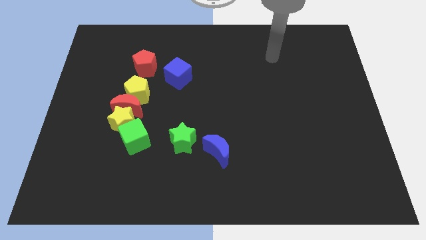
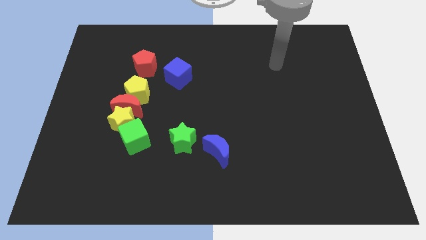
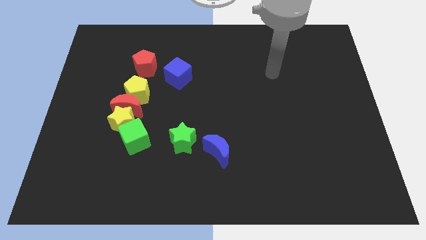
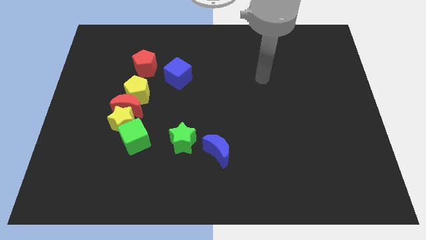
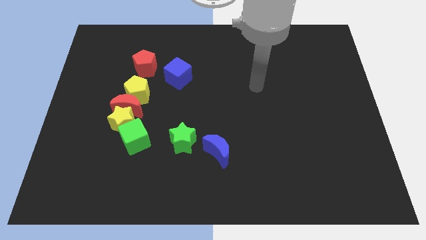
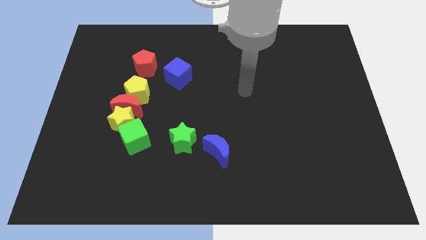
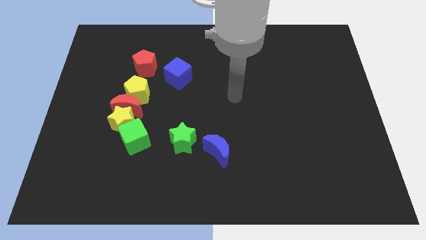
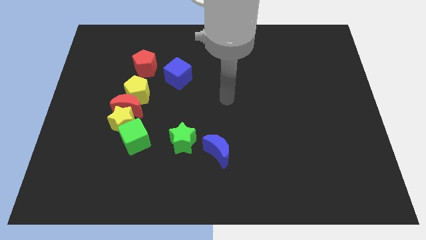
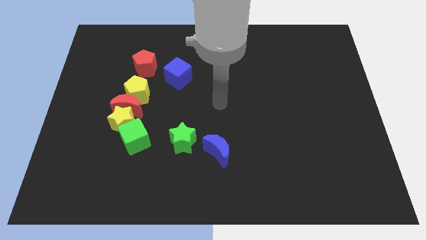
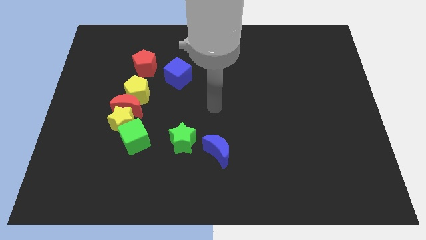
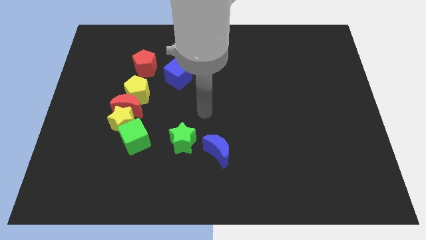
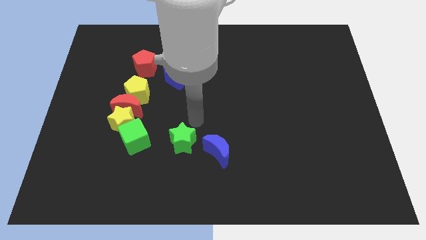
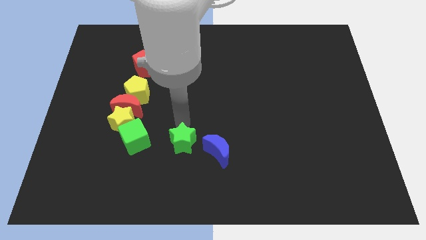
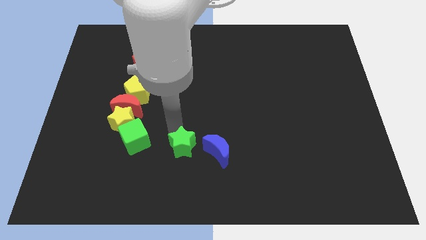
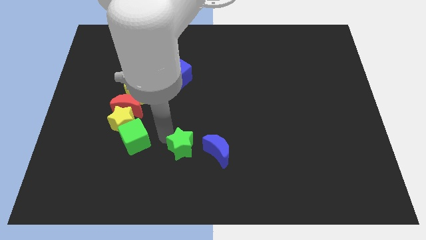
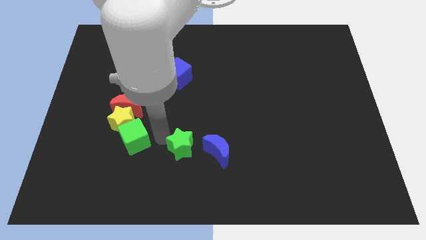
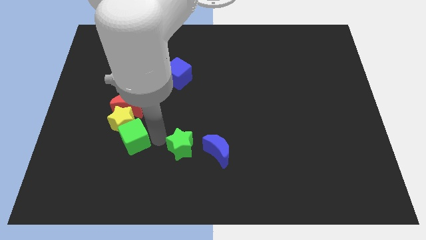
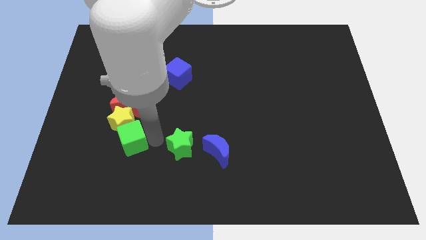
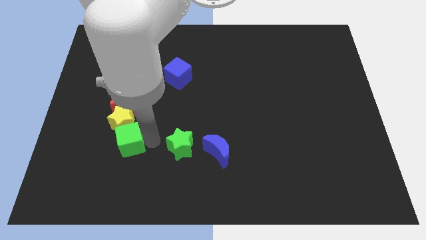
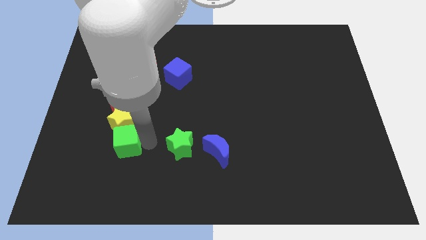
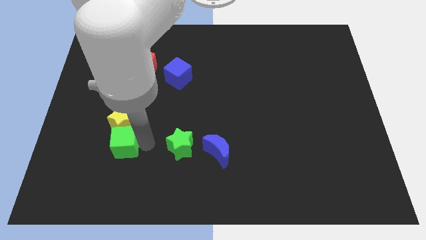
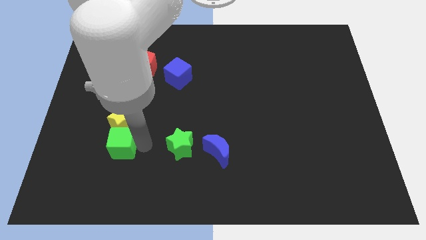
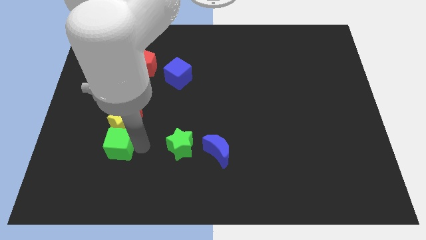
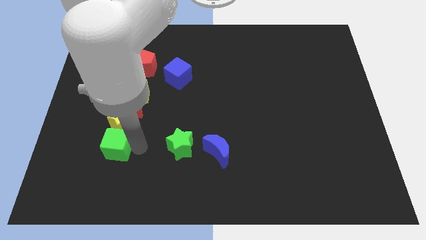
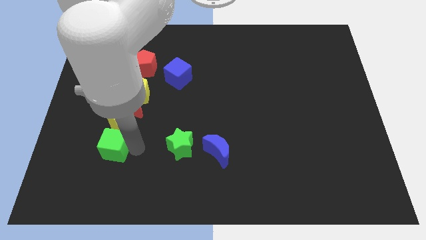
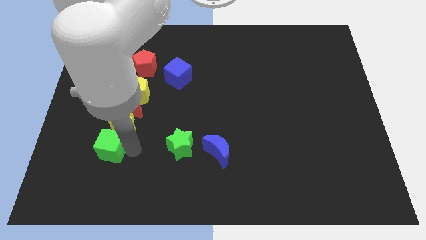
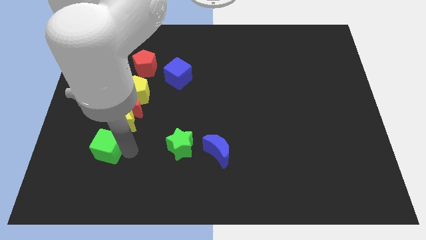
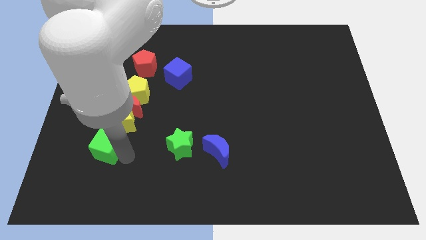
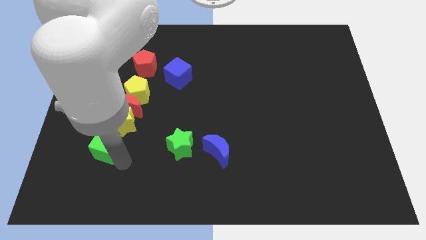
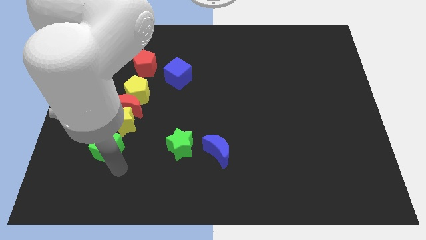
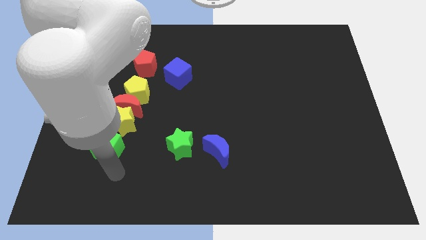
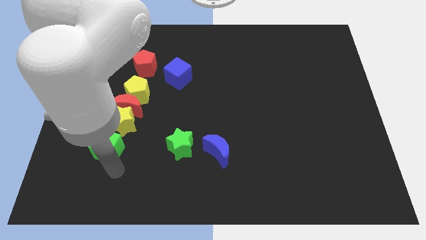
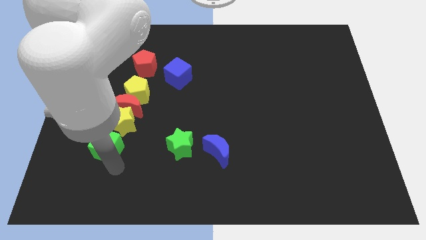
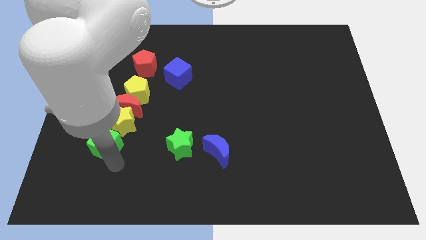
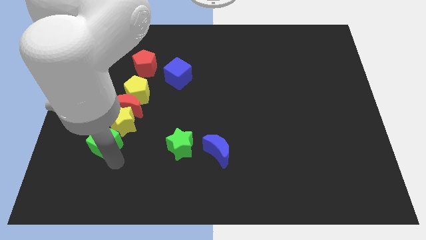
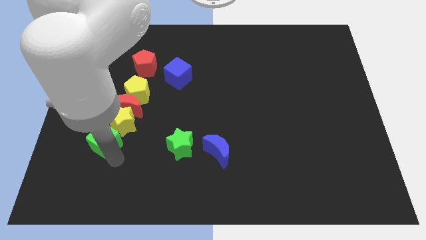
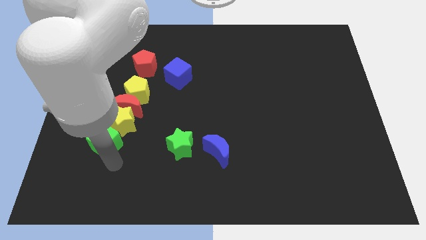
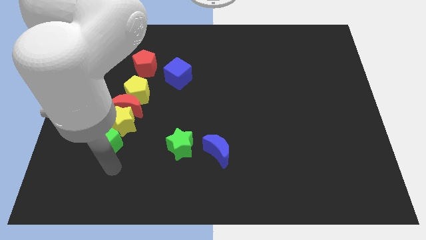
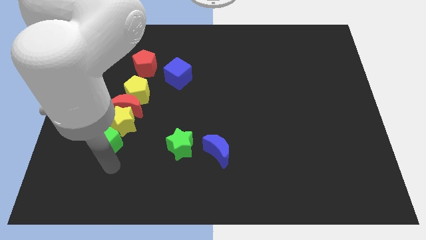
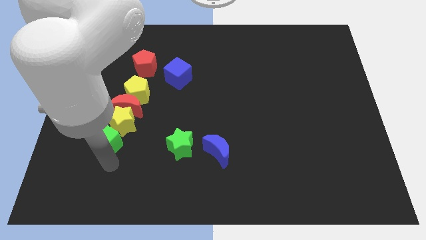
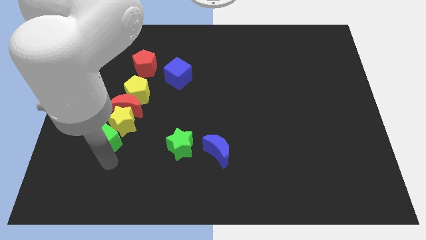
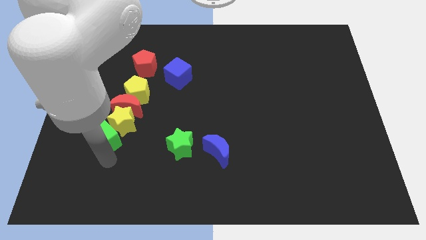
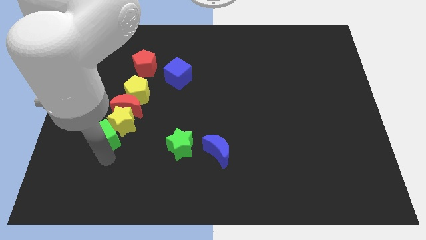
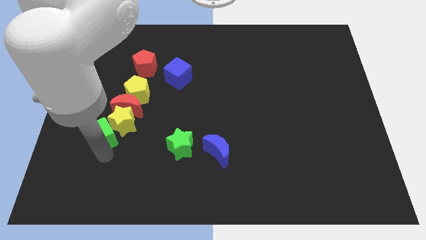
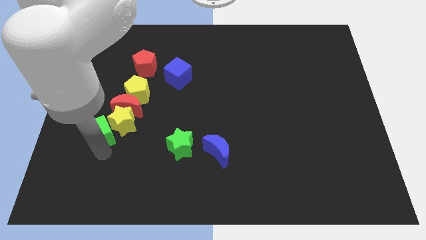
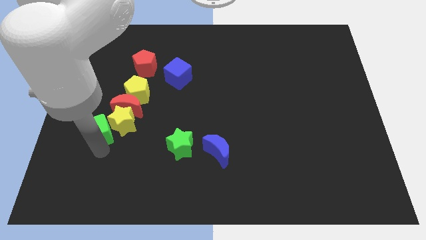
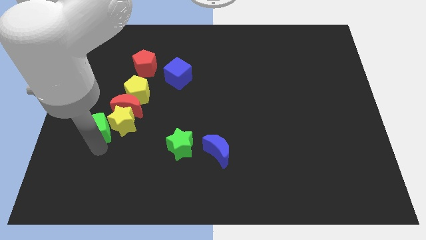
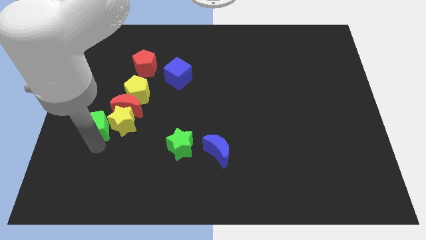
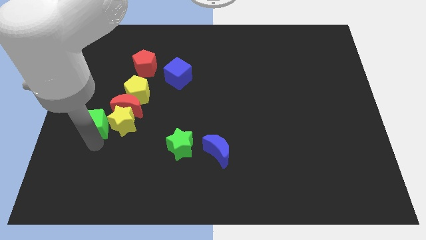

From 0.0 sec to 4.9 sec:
push the green cube diagonally down and to the left of the yellow pentagon

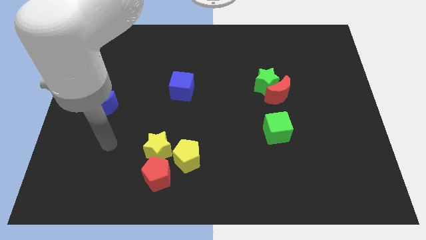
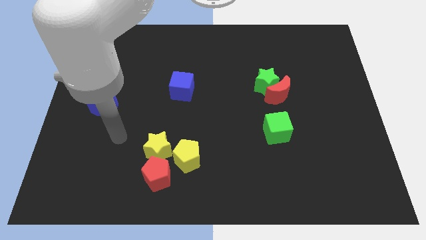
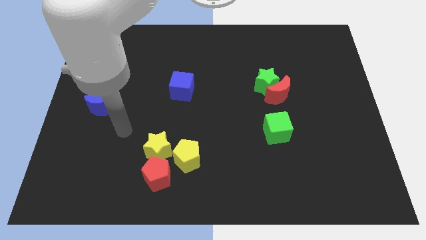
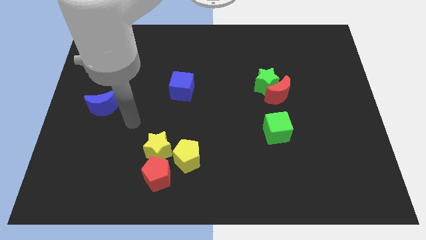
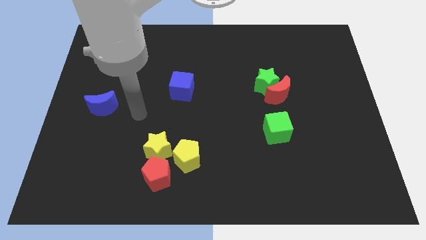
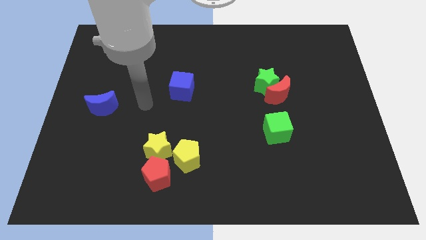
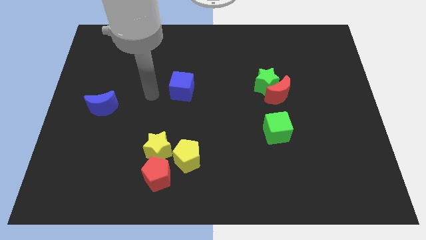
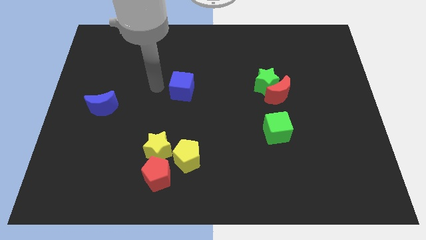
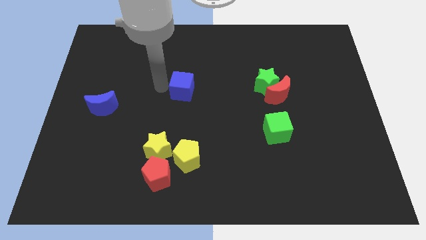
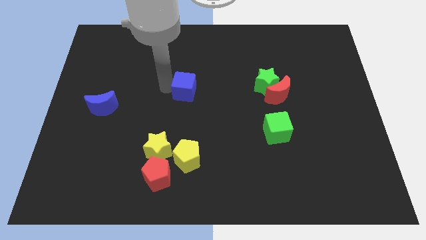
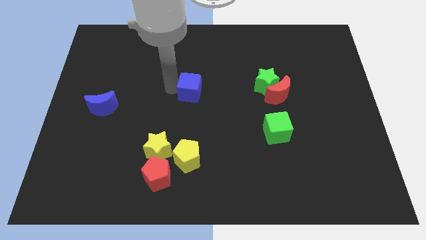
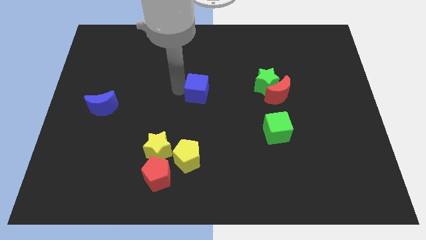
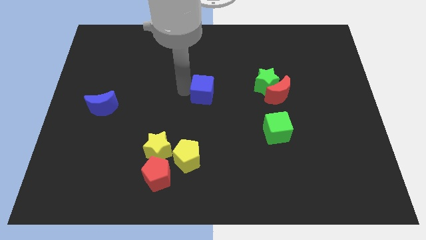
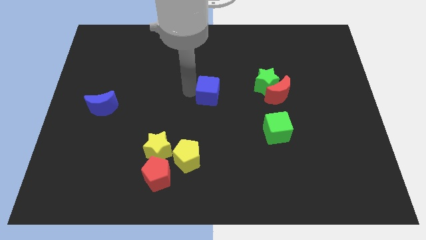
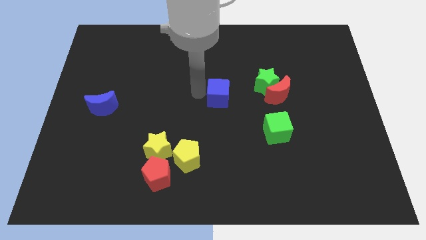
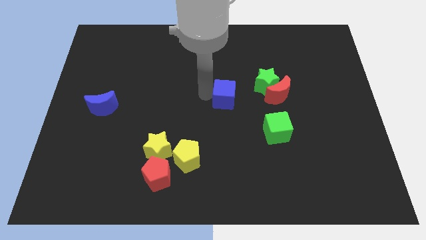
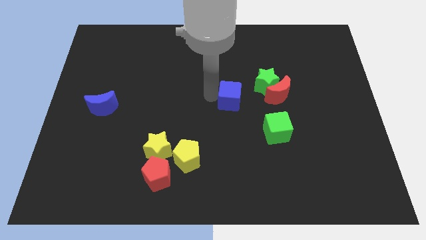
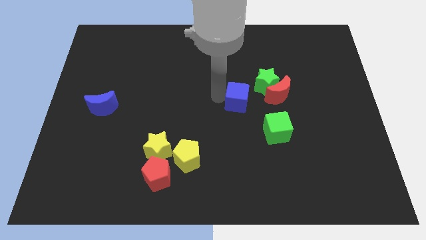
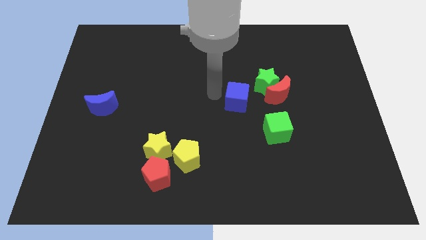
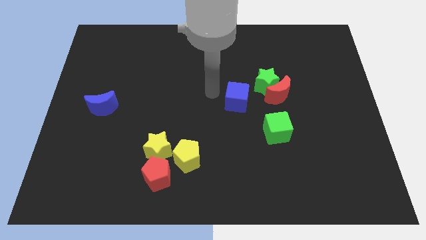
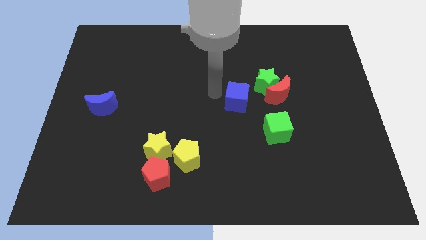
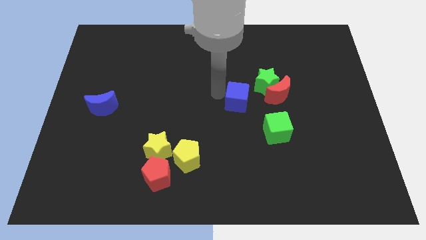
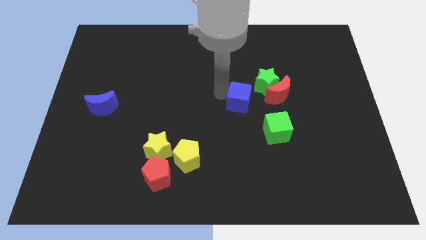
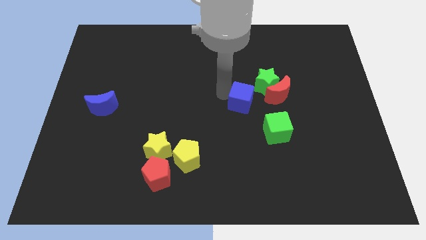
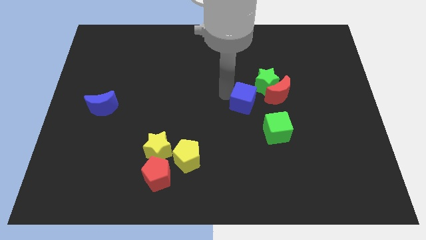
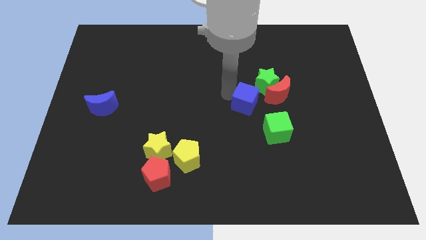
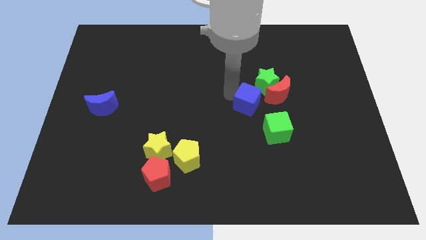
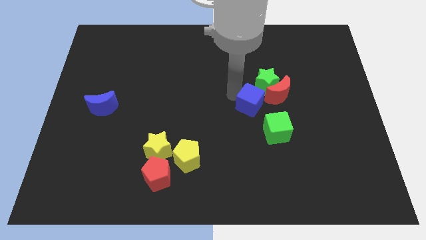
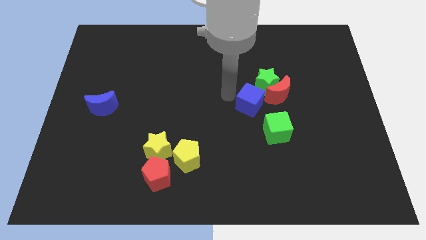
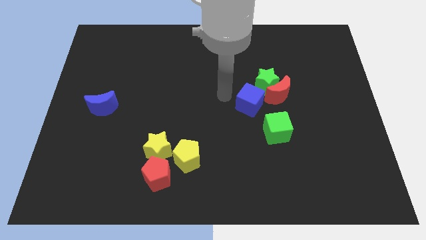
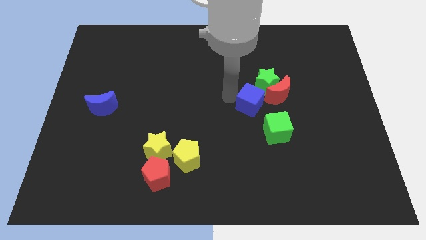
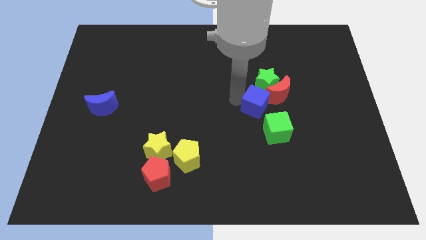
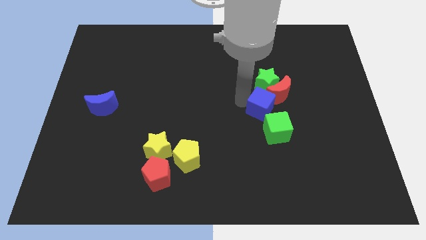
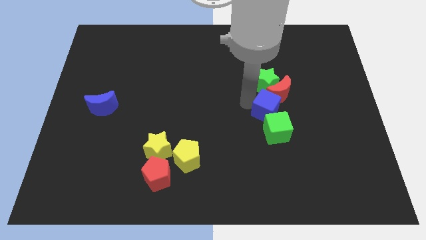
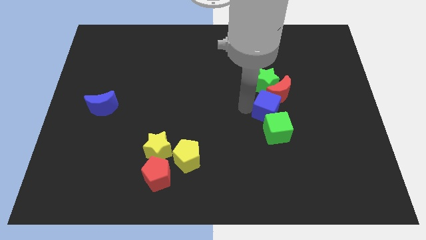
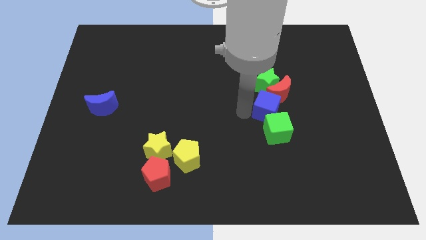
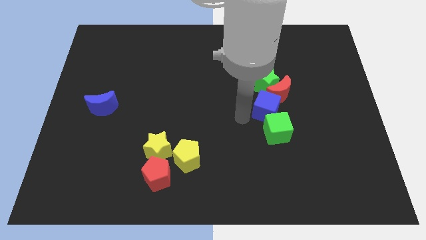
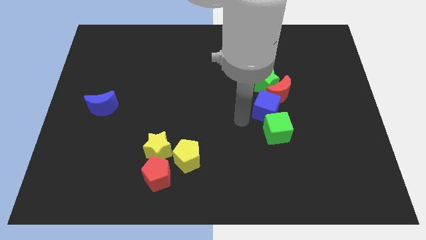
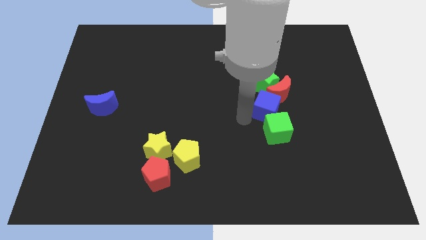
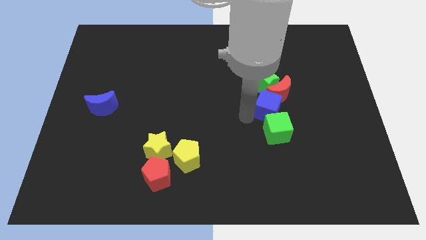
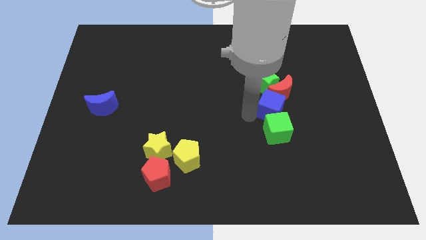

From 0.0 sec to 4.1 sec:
put the blue cube diagonally down and to the right of the green star
